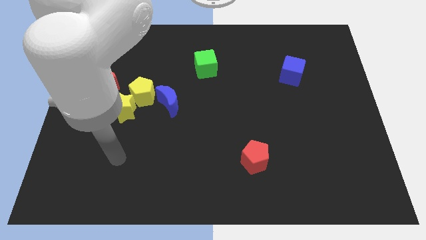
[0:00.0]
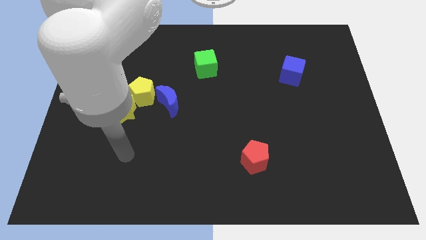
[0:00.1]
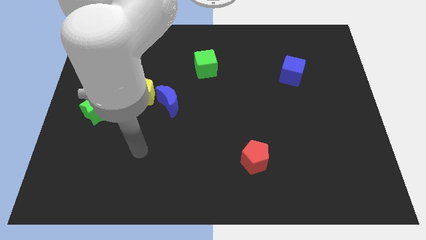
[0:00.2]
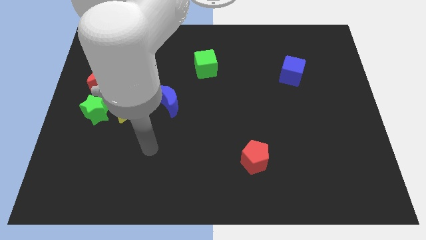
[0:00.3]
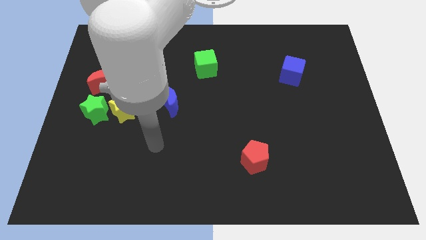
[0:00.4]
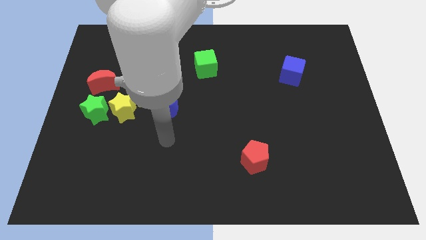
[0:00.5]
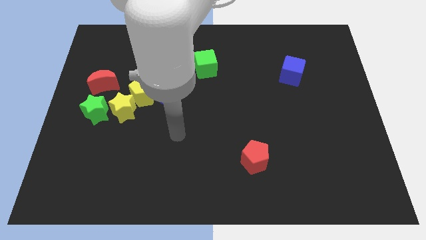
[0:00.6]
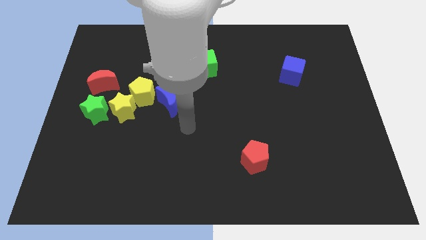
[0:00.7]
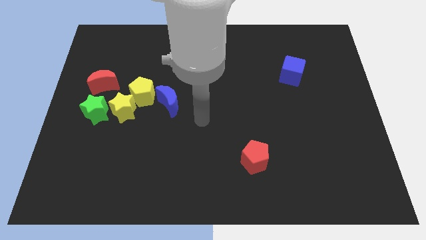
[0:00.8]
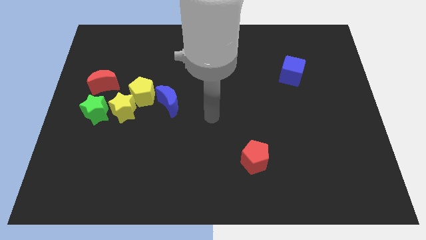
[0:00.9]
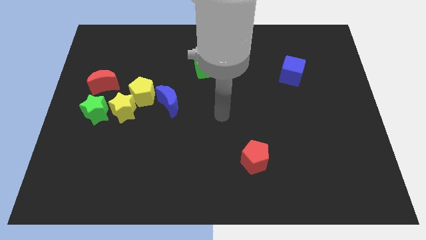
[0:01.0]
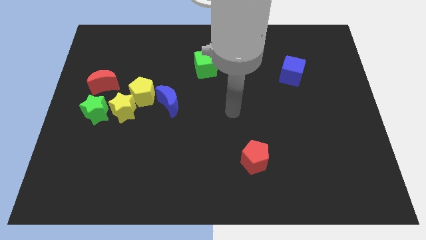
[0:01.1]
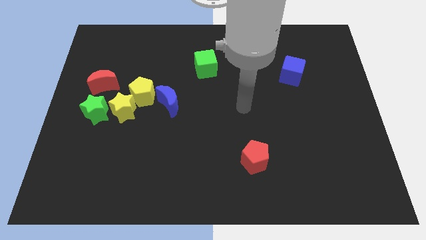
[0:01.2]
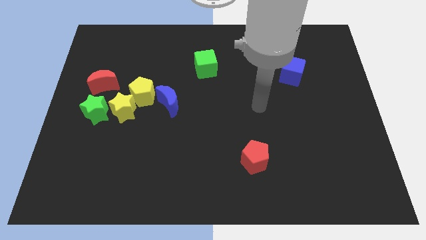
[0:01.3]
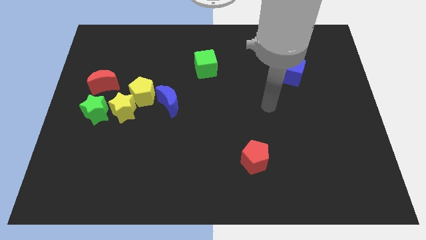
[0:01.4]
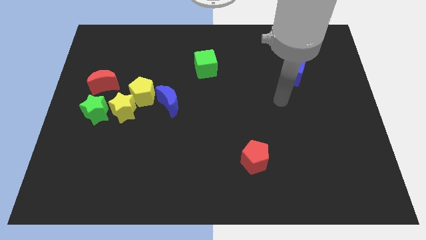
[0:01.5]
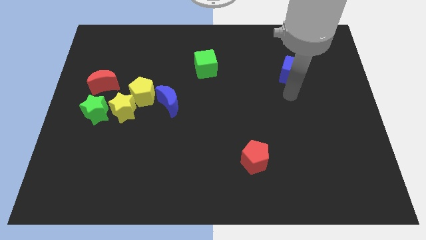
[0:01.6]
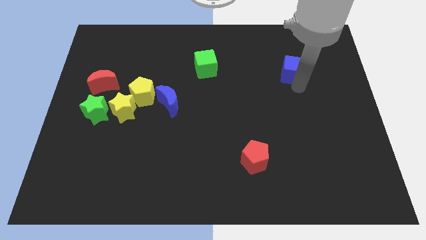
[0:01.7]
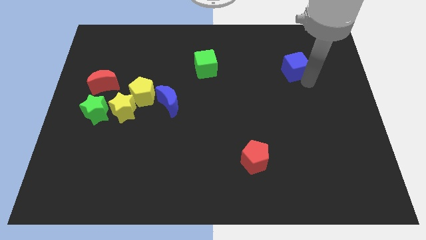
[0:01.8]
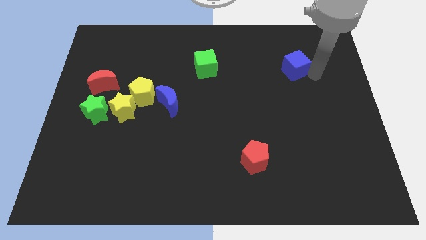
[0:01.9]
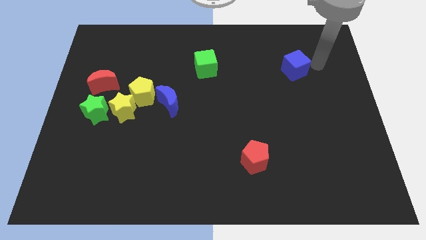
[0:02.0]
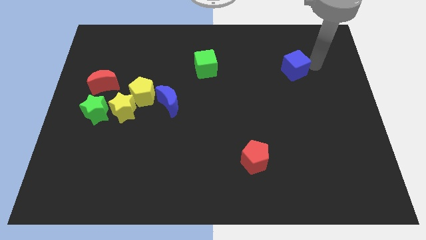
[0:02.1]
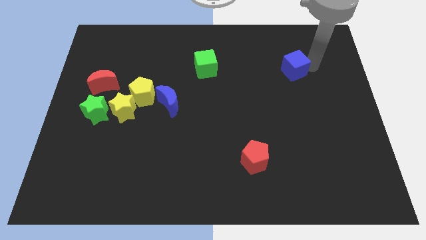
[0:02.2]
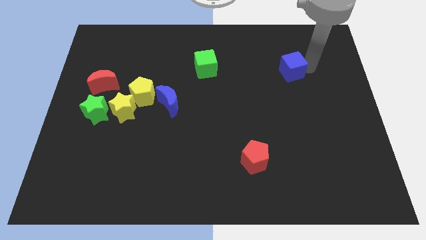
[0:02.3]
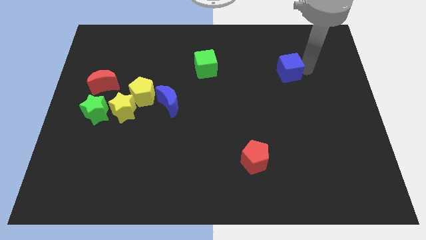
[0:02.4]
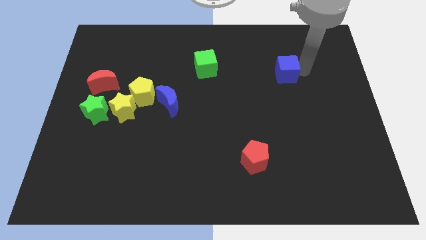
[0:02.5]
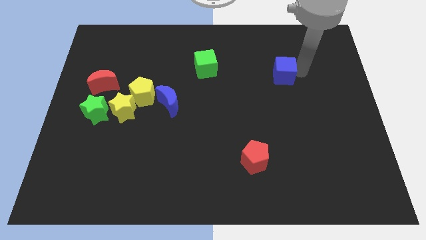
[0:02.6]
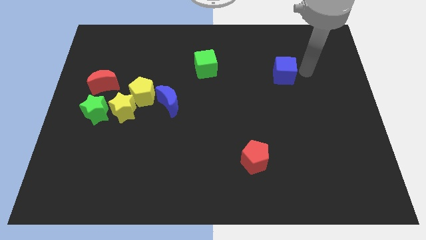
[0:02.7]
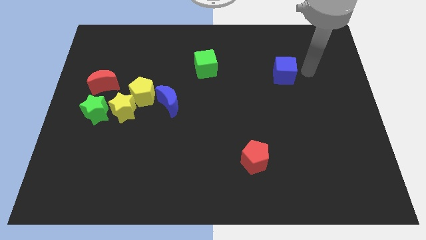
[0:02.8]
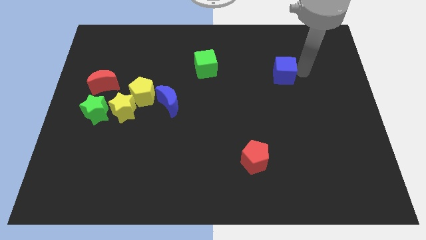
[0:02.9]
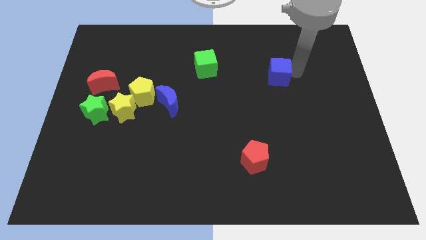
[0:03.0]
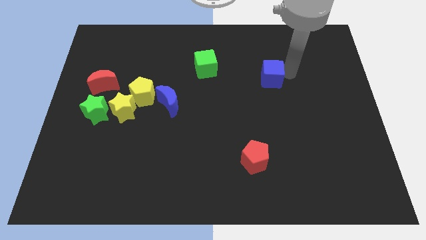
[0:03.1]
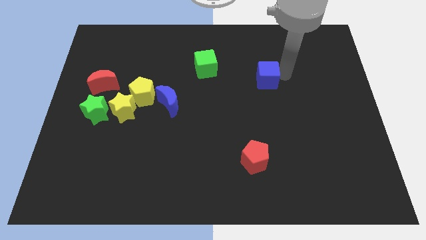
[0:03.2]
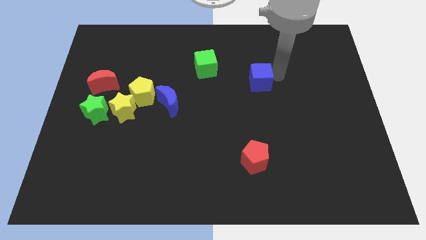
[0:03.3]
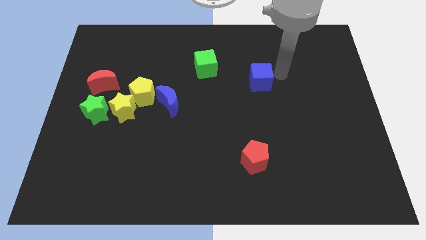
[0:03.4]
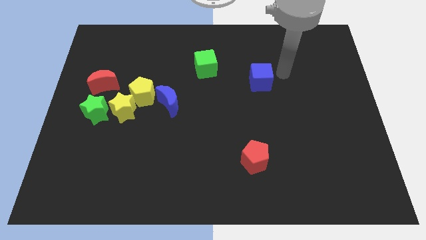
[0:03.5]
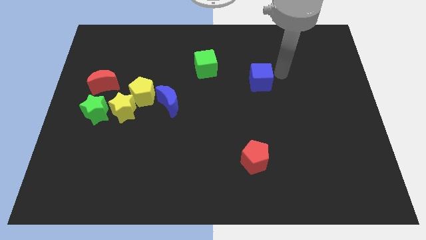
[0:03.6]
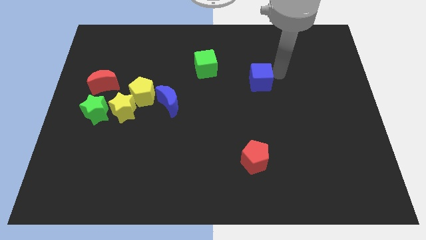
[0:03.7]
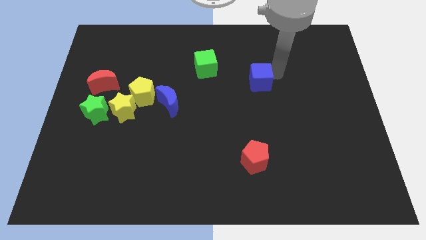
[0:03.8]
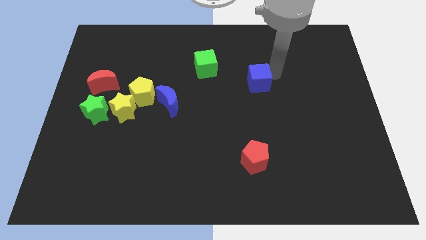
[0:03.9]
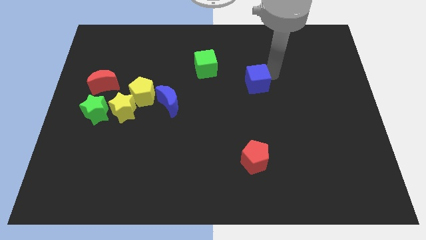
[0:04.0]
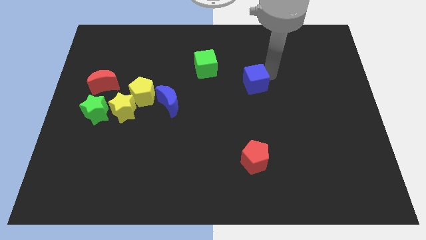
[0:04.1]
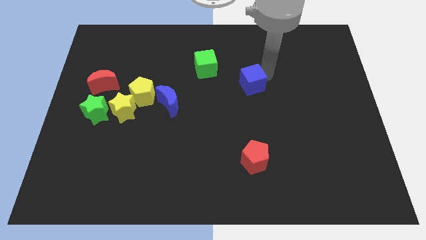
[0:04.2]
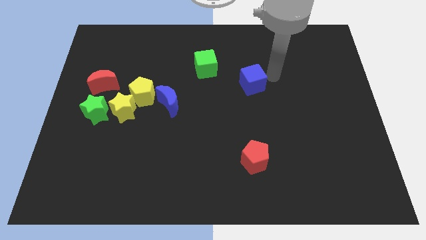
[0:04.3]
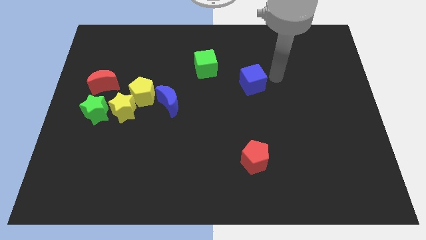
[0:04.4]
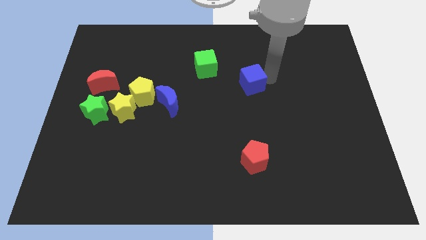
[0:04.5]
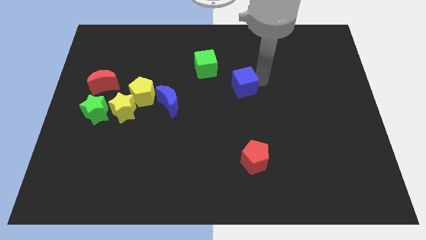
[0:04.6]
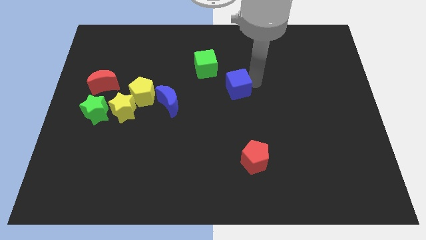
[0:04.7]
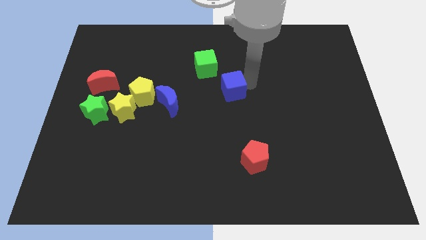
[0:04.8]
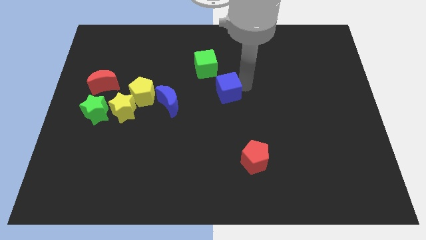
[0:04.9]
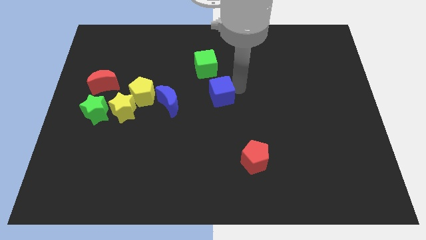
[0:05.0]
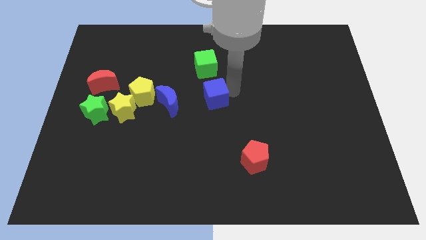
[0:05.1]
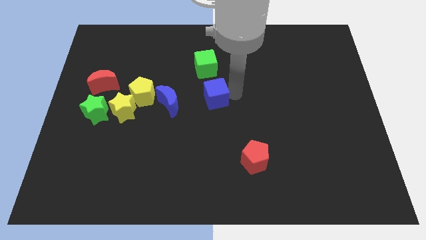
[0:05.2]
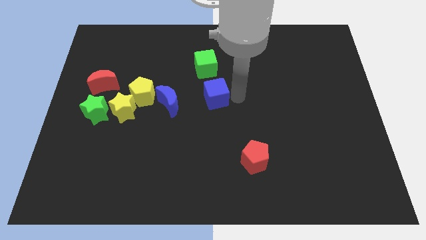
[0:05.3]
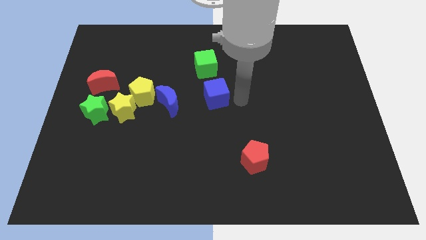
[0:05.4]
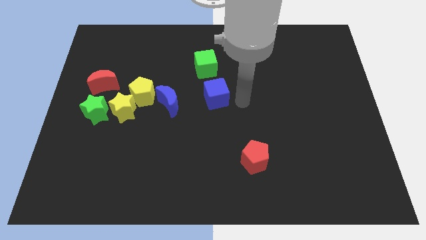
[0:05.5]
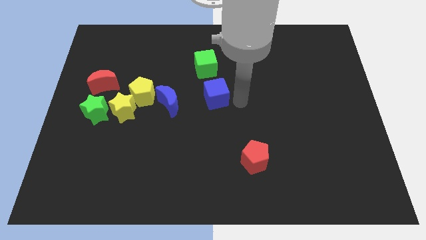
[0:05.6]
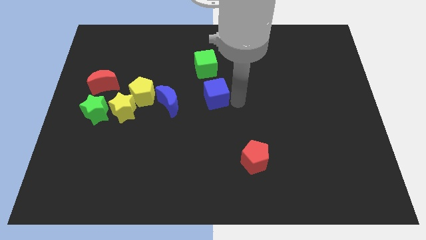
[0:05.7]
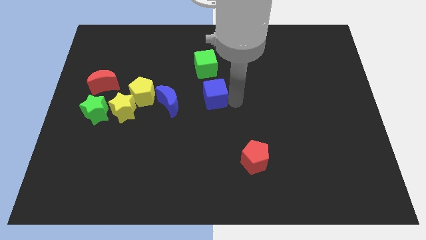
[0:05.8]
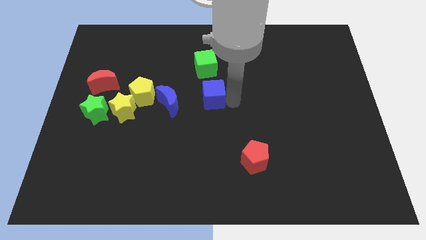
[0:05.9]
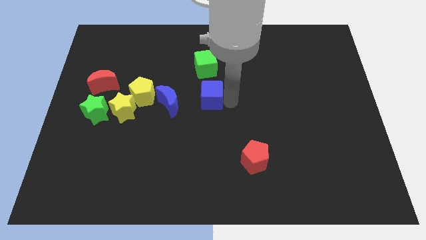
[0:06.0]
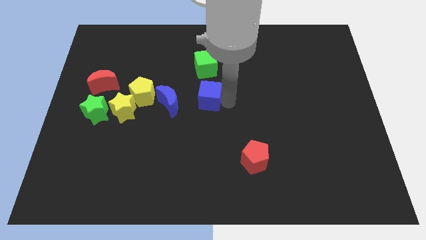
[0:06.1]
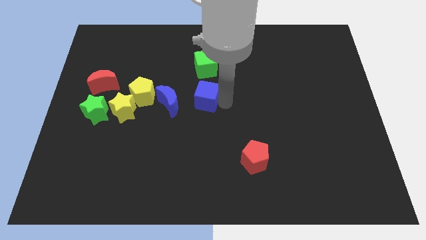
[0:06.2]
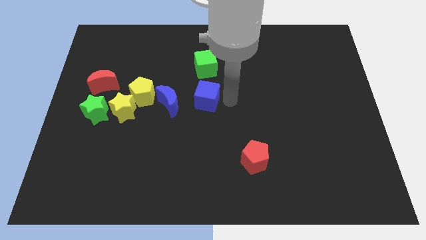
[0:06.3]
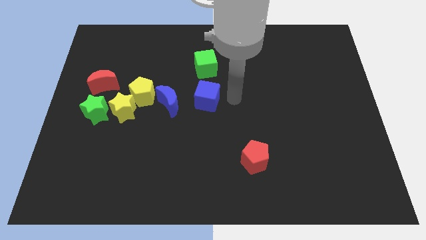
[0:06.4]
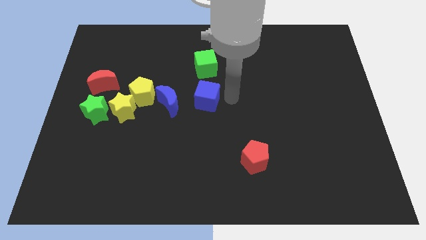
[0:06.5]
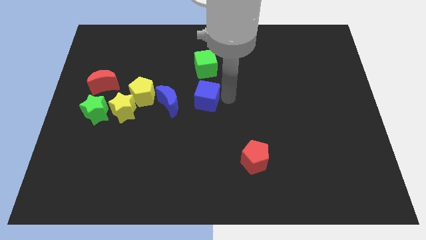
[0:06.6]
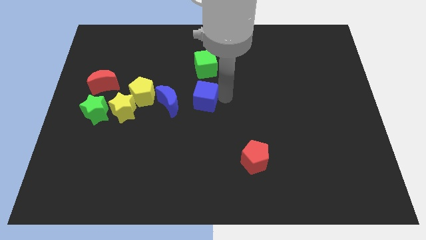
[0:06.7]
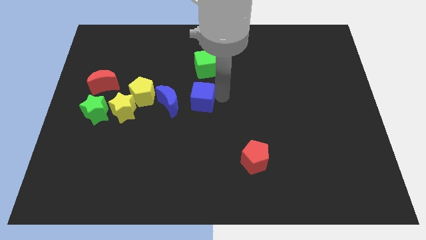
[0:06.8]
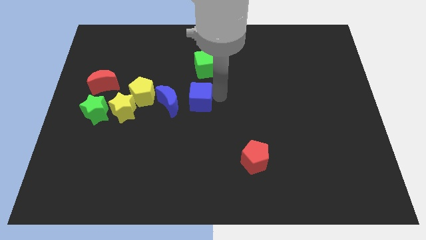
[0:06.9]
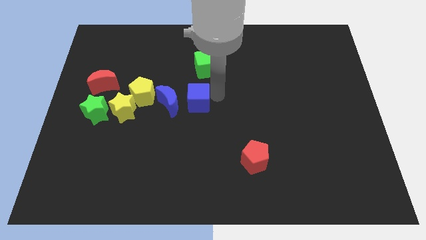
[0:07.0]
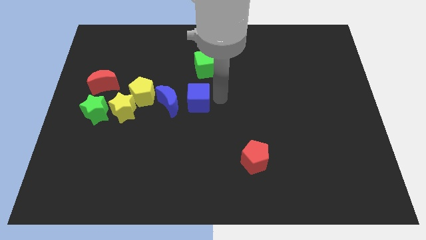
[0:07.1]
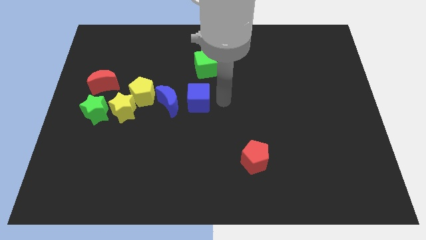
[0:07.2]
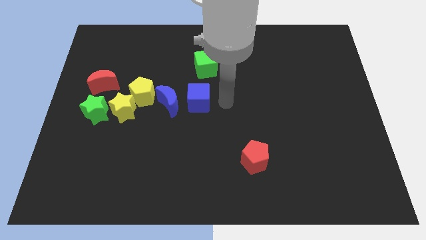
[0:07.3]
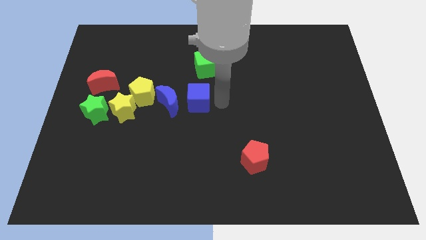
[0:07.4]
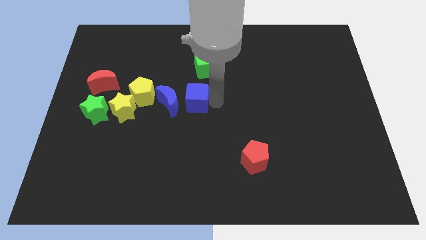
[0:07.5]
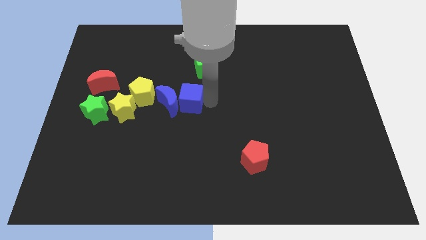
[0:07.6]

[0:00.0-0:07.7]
move the blue cube close to the blue moon
